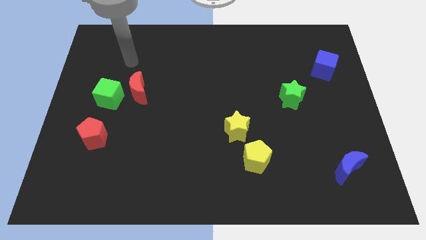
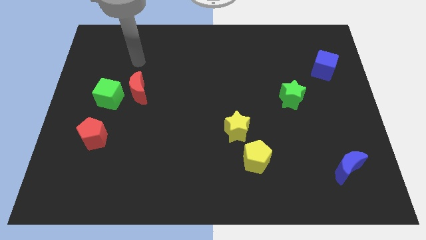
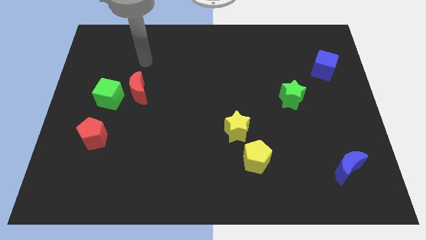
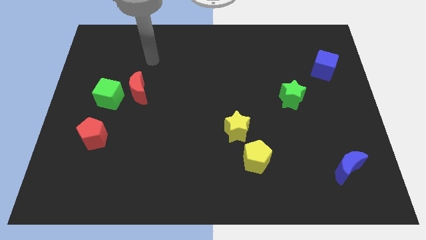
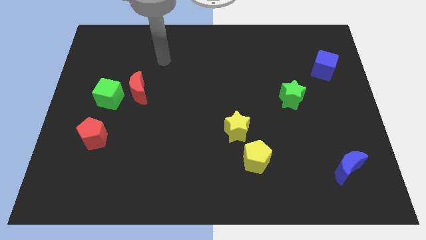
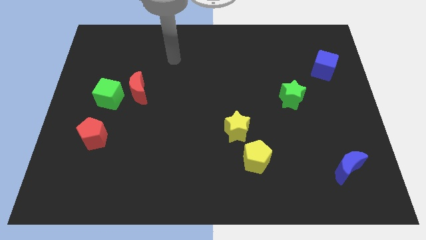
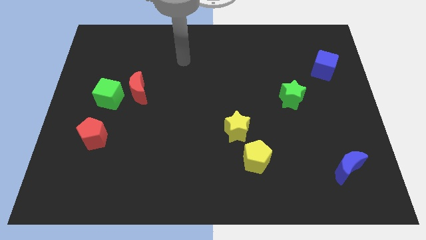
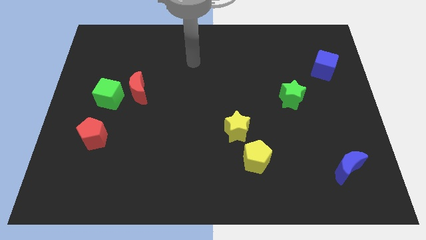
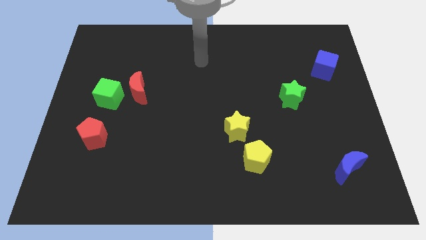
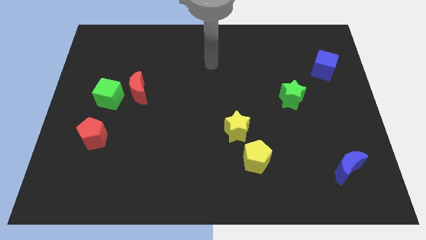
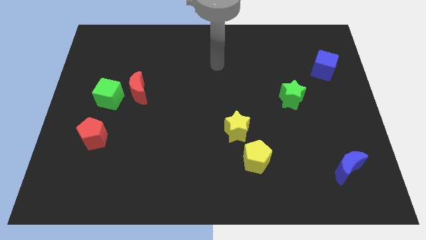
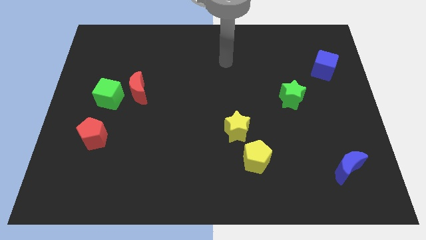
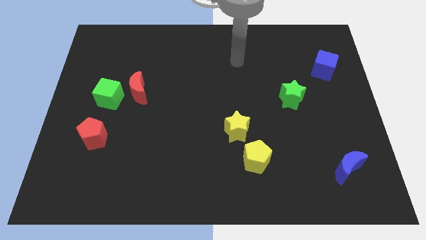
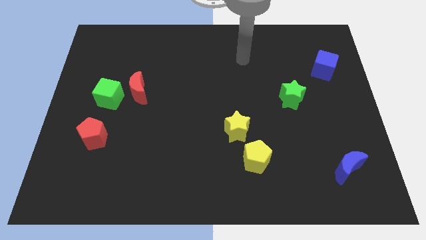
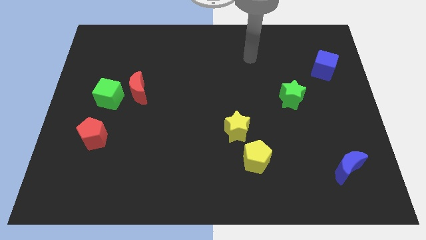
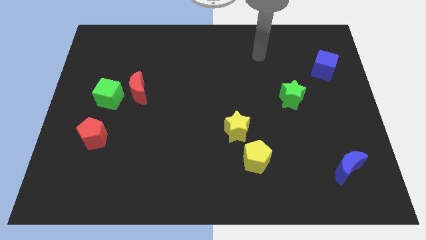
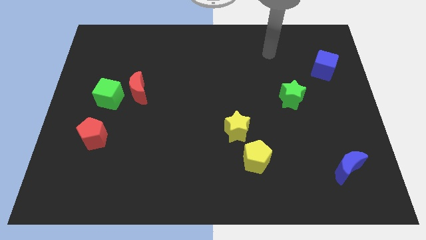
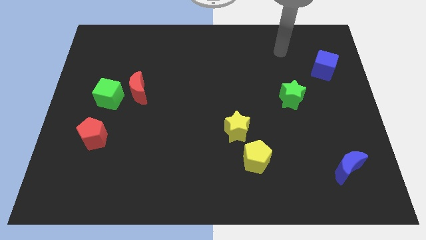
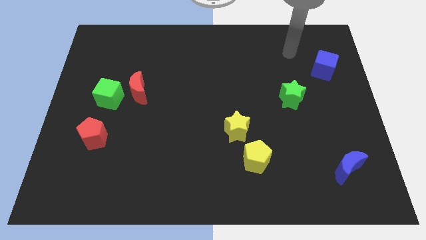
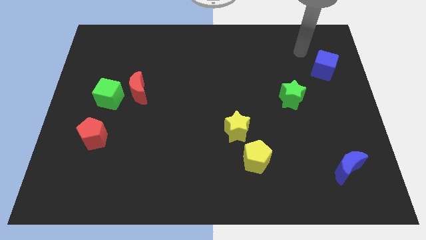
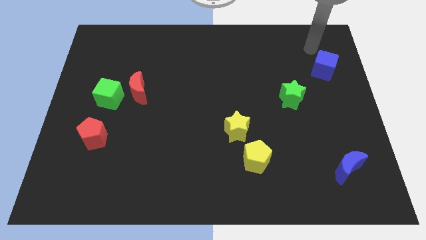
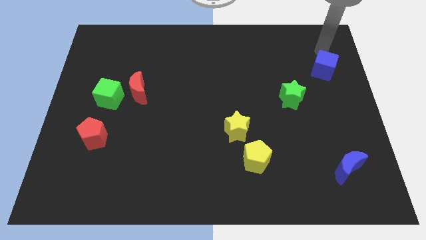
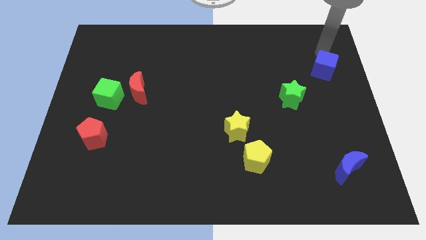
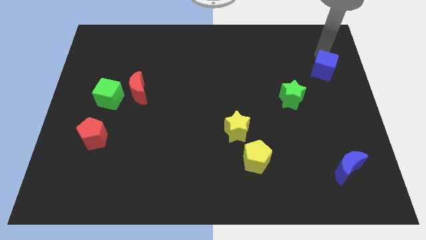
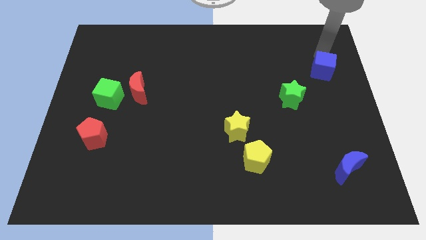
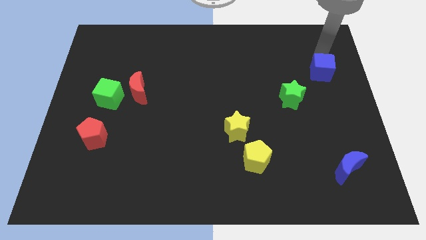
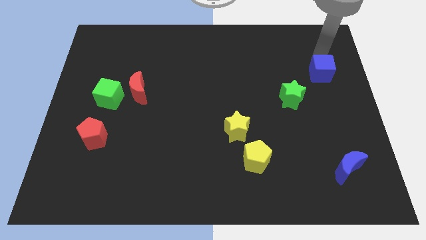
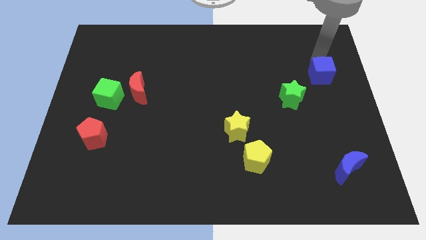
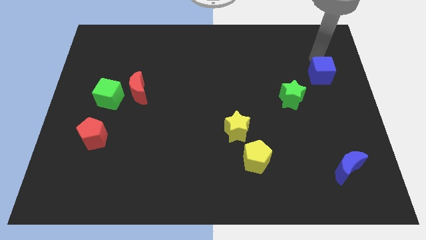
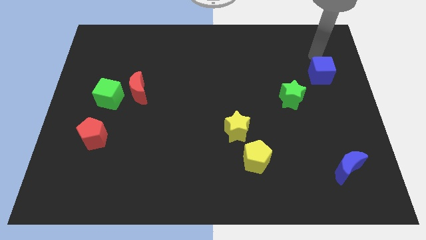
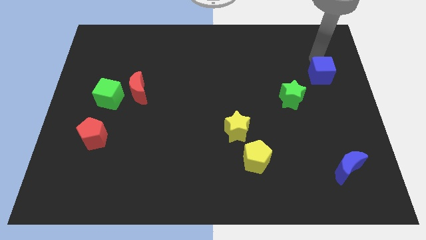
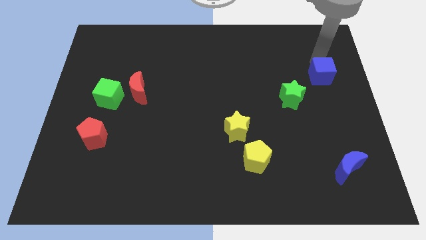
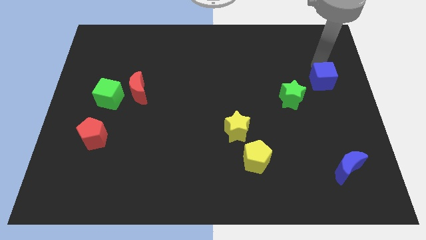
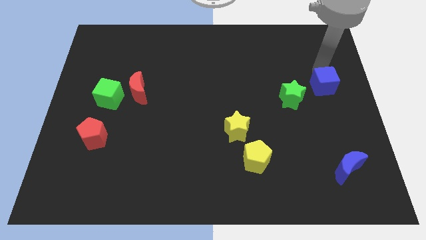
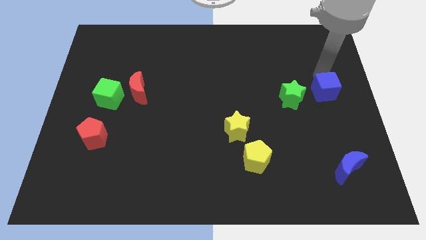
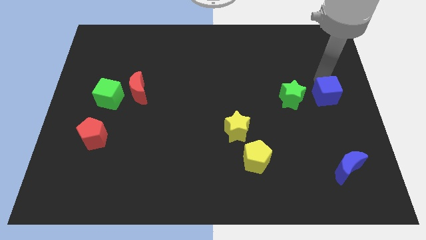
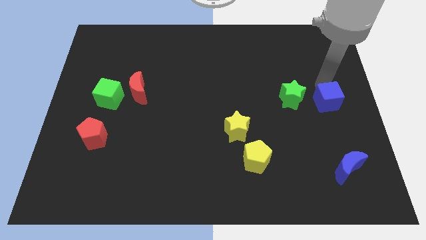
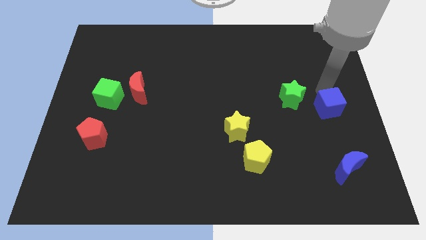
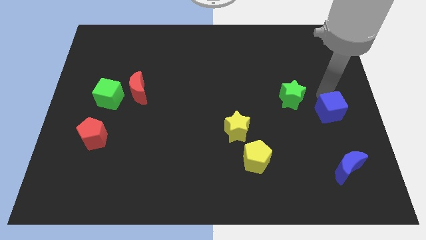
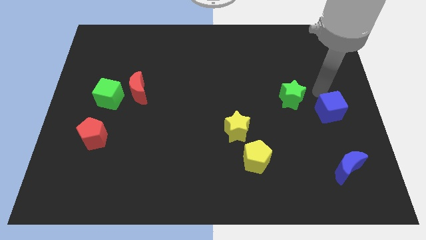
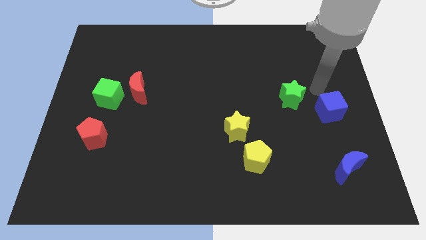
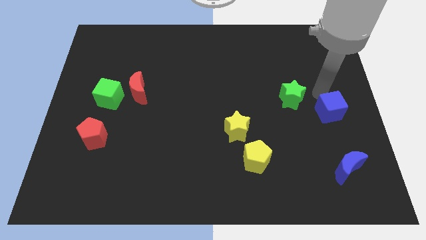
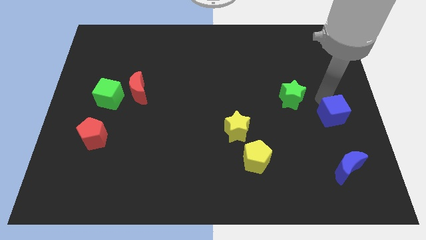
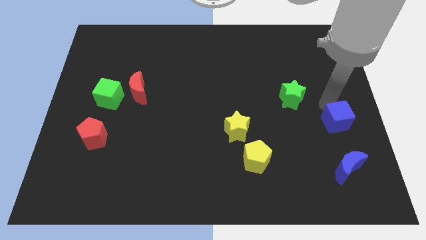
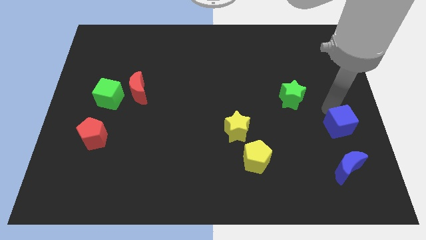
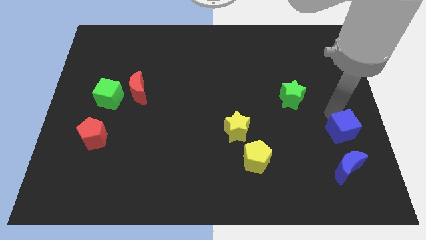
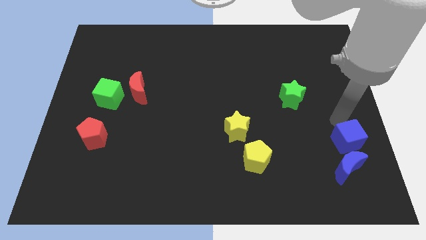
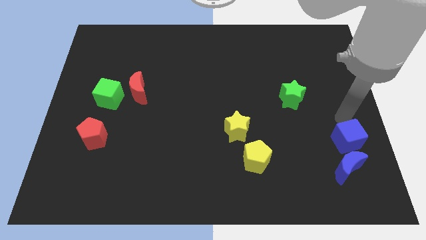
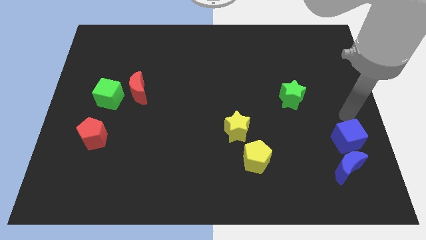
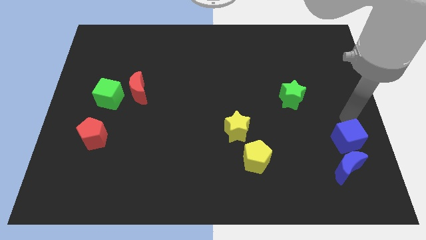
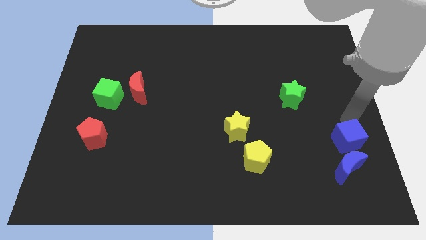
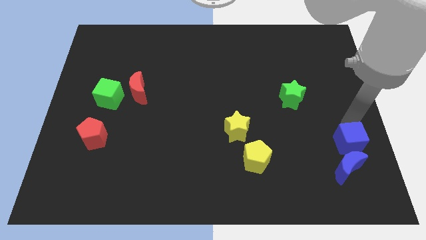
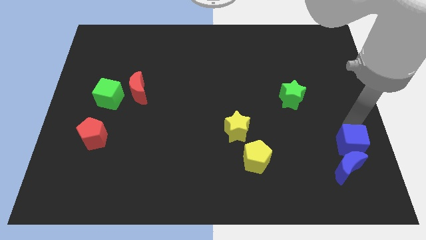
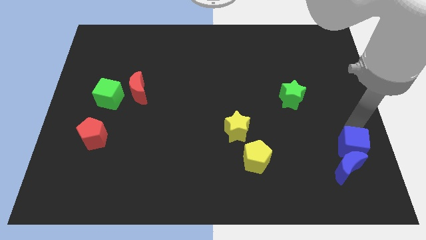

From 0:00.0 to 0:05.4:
slide the blue cube towards the blue moon

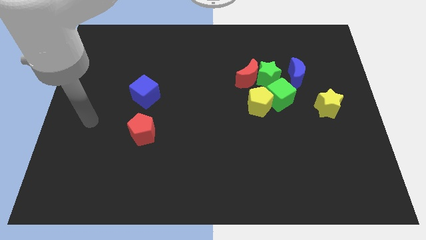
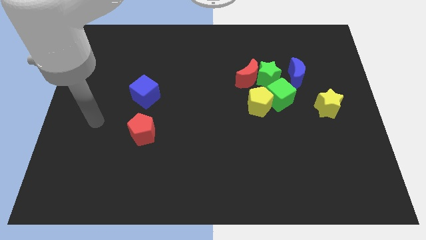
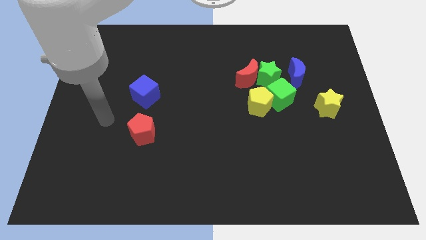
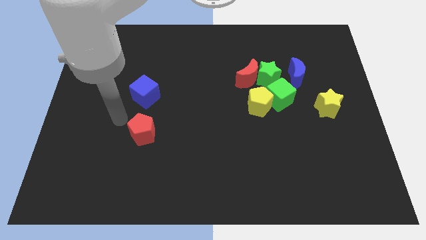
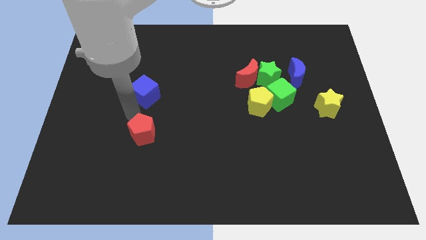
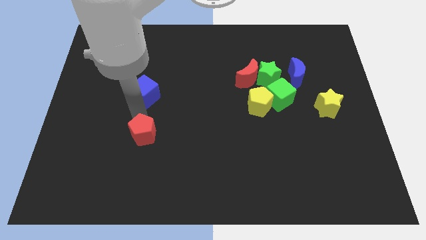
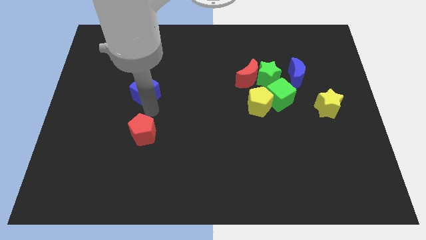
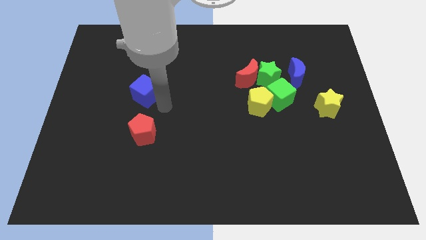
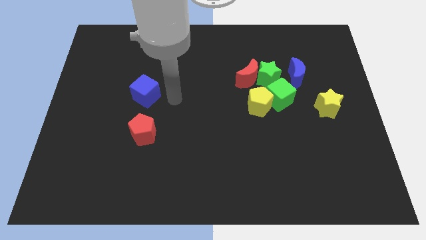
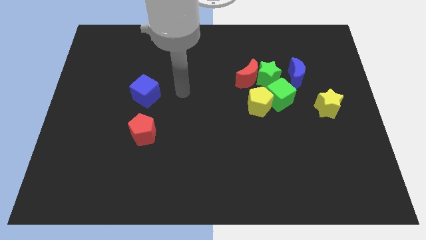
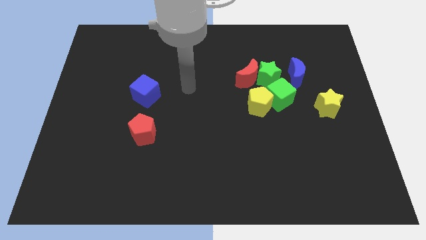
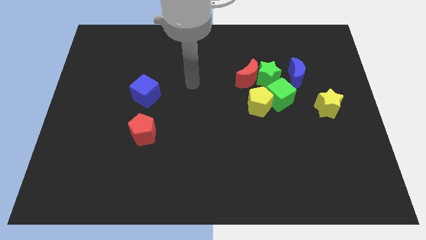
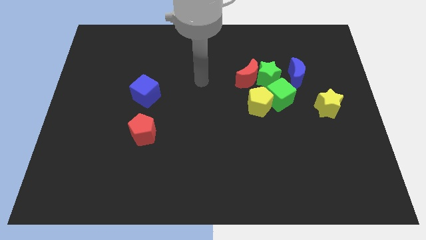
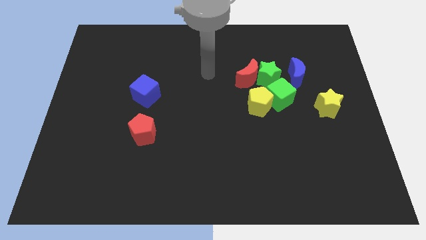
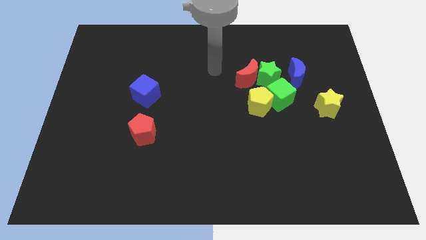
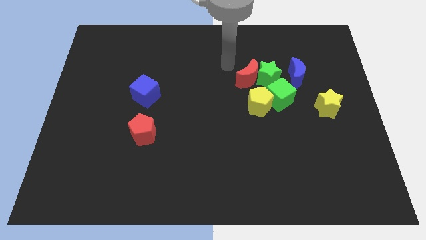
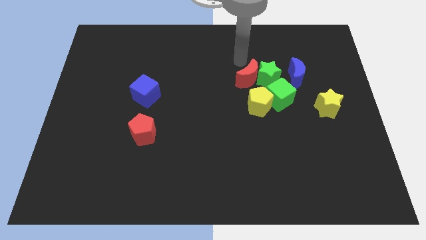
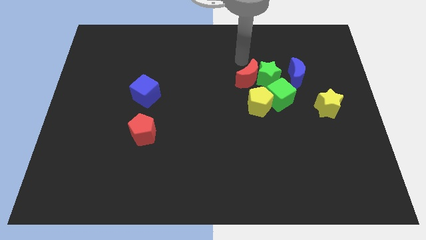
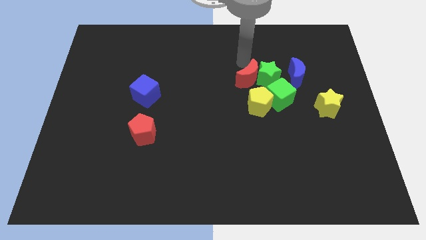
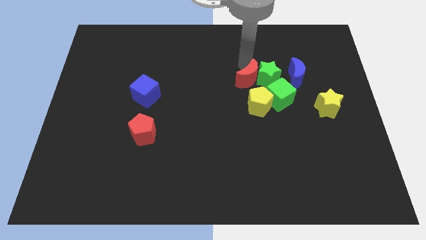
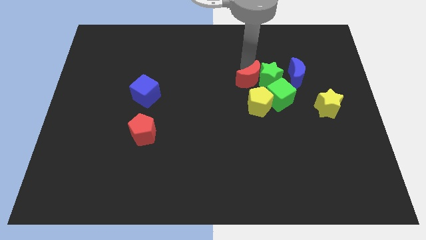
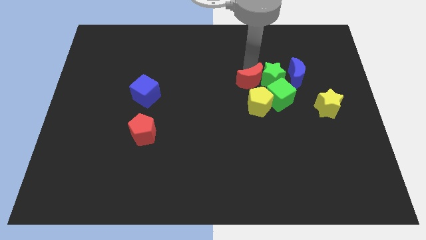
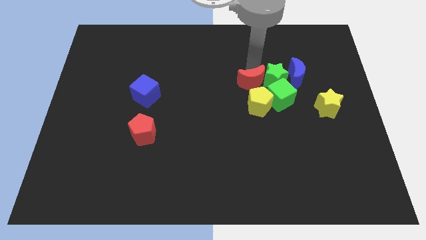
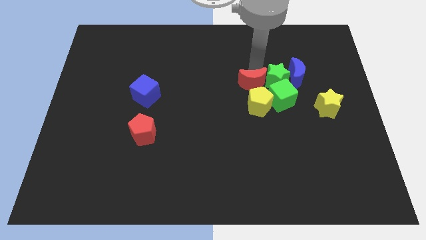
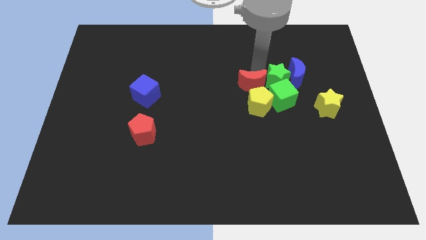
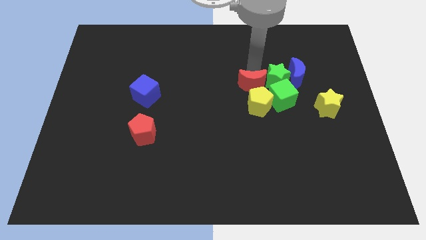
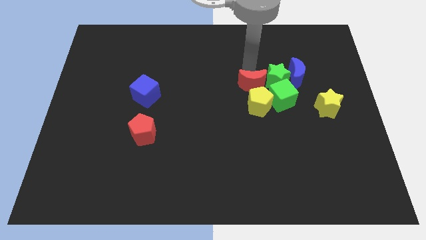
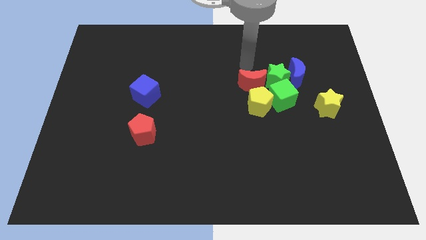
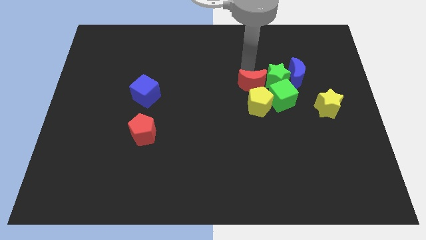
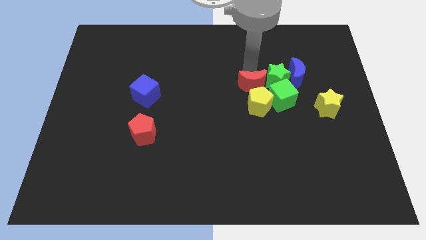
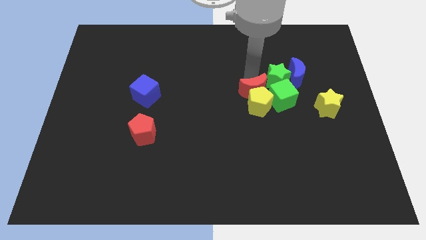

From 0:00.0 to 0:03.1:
put the red moon to the yellow pentagon
